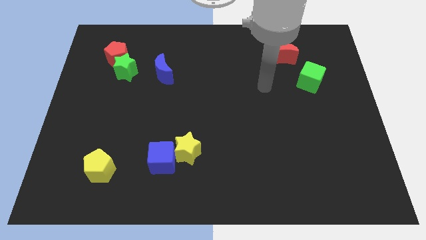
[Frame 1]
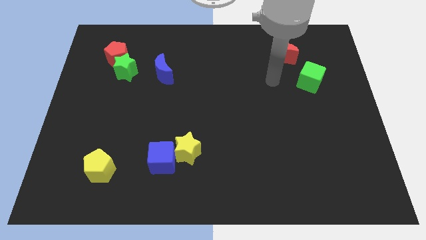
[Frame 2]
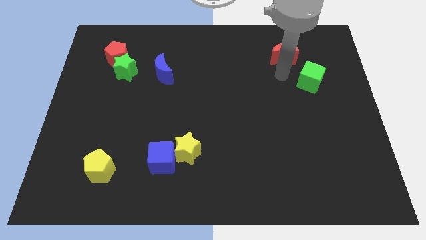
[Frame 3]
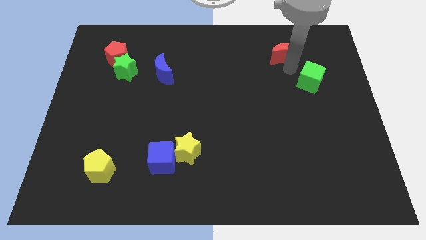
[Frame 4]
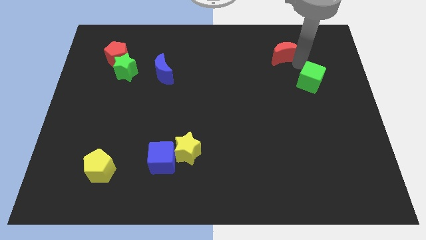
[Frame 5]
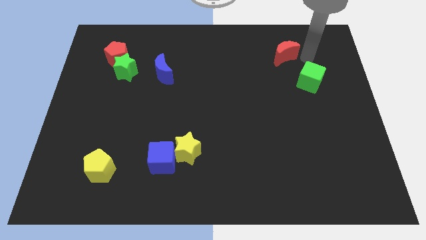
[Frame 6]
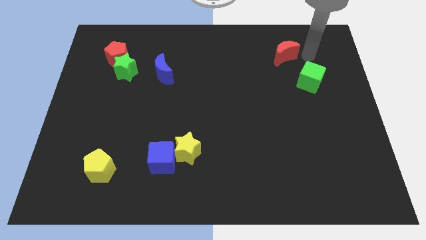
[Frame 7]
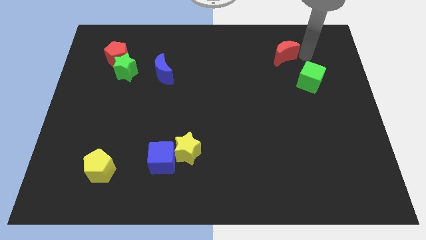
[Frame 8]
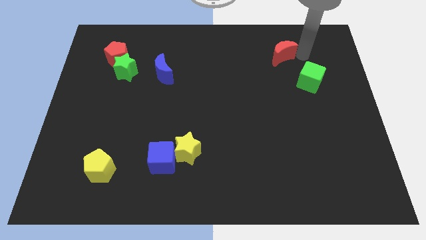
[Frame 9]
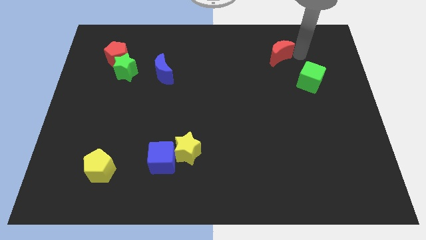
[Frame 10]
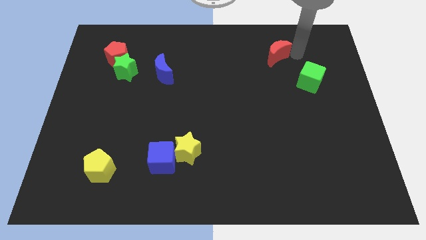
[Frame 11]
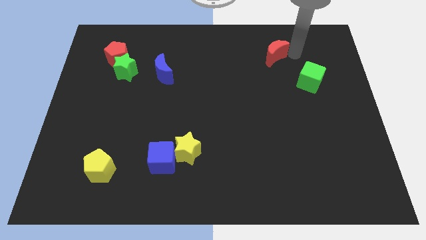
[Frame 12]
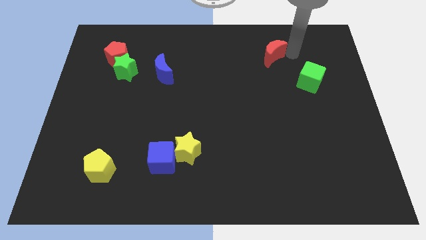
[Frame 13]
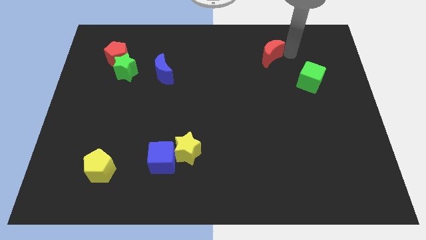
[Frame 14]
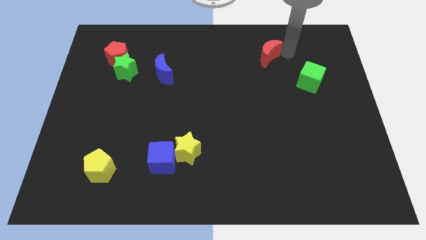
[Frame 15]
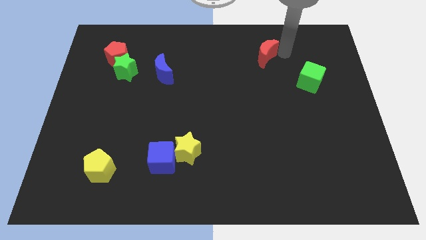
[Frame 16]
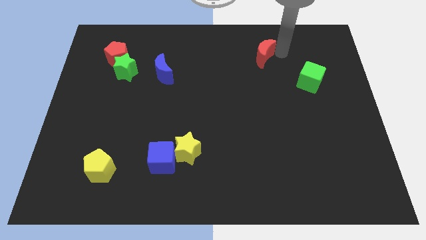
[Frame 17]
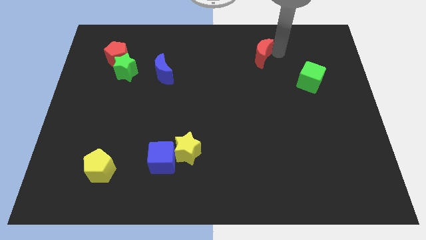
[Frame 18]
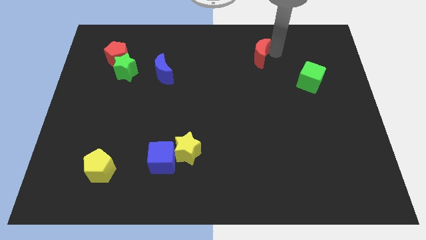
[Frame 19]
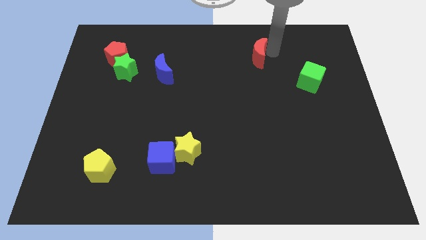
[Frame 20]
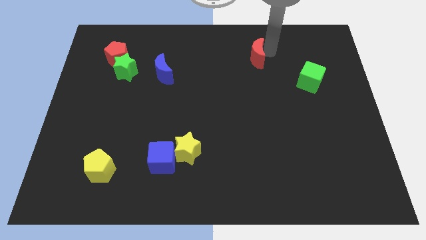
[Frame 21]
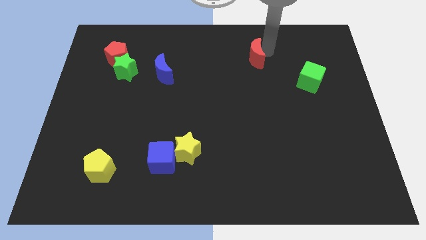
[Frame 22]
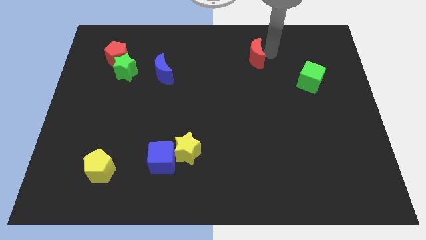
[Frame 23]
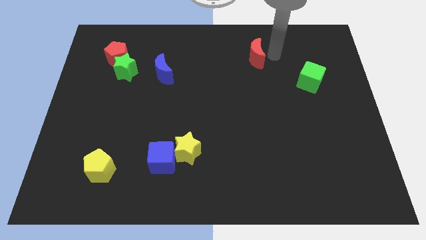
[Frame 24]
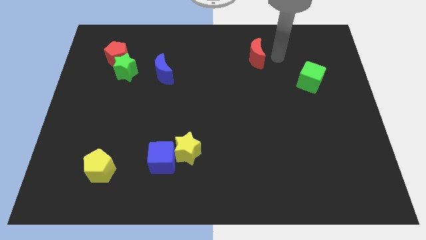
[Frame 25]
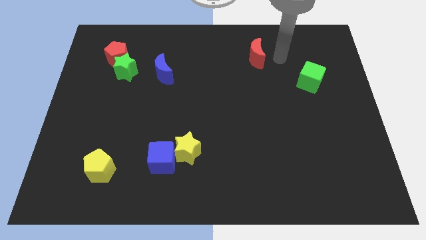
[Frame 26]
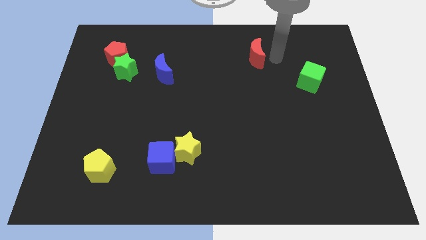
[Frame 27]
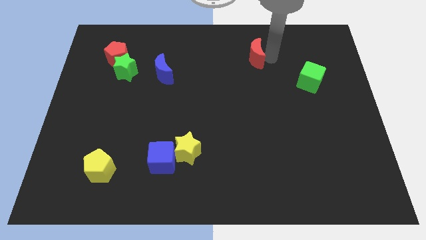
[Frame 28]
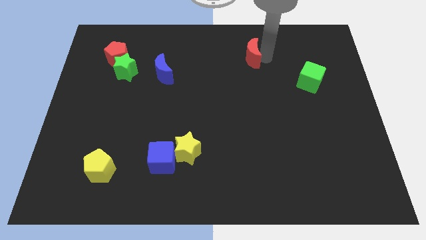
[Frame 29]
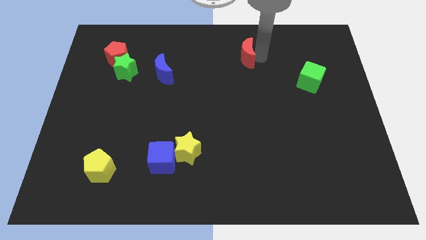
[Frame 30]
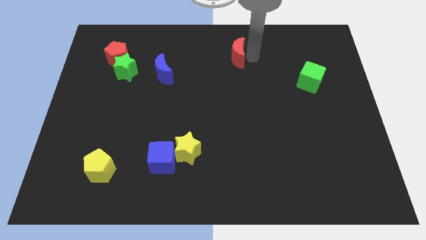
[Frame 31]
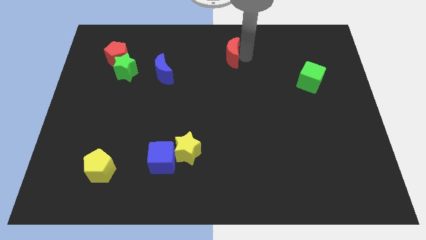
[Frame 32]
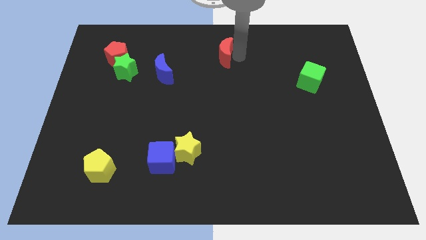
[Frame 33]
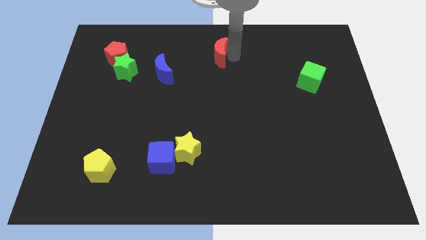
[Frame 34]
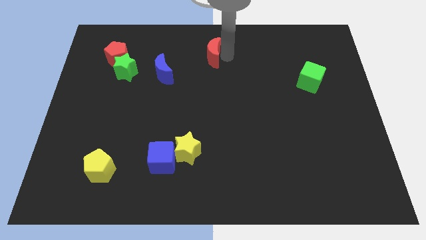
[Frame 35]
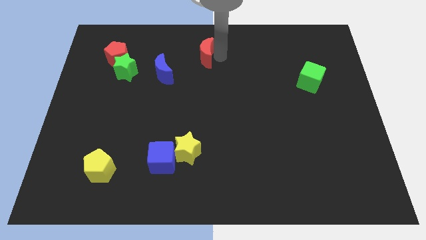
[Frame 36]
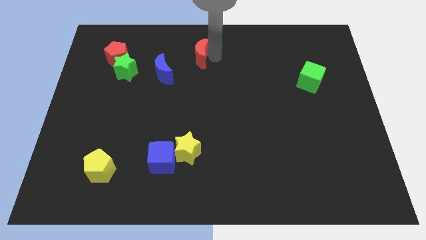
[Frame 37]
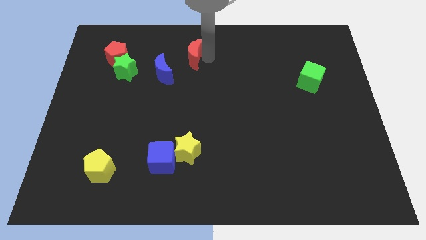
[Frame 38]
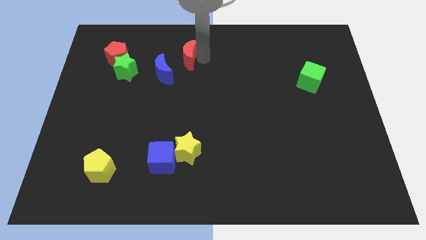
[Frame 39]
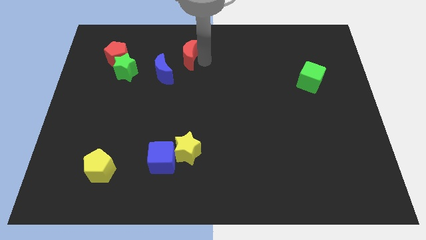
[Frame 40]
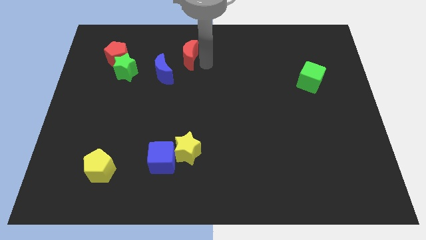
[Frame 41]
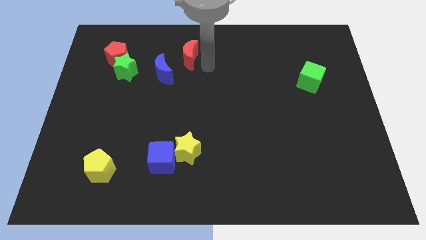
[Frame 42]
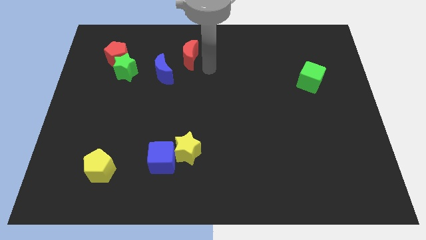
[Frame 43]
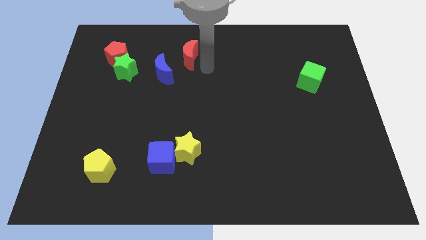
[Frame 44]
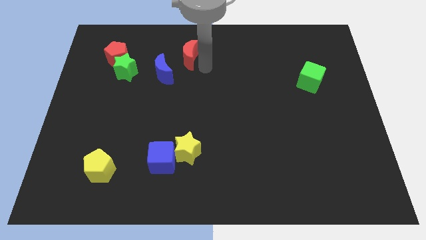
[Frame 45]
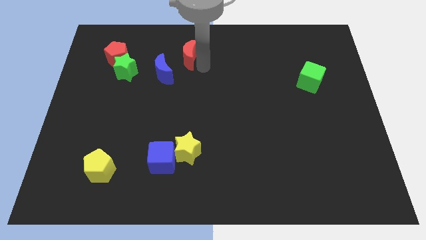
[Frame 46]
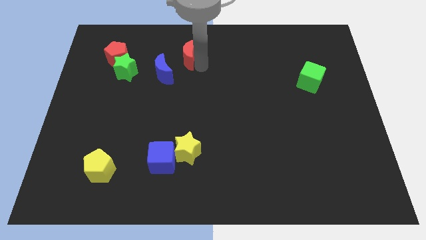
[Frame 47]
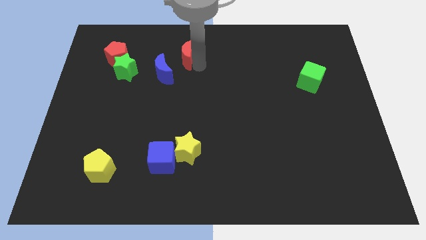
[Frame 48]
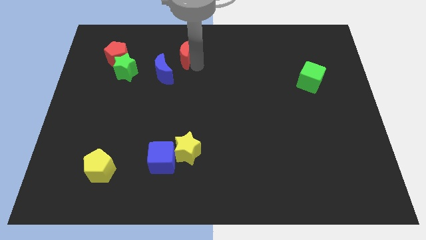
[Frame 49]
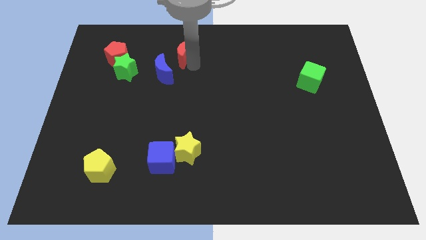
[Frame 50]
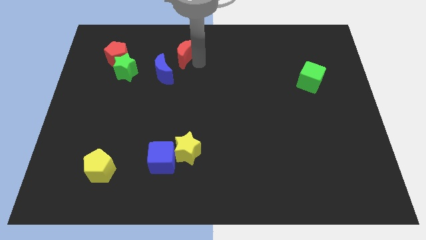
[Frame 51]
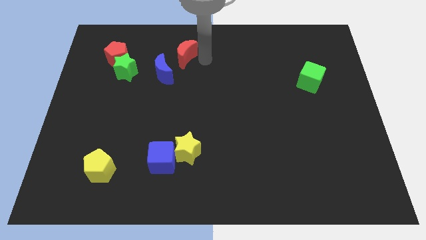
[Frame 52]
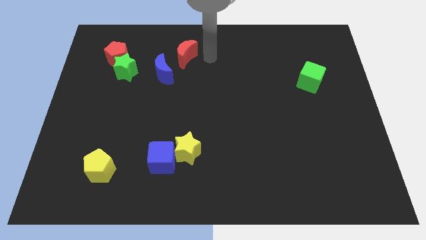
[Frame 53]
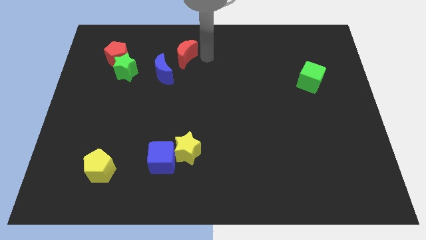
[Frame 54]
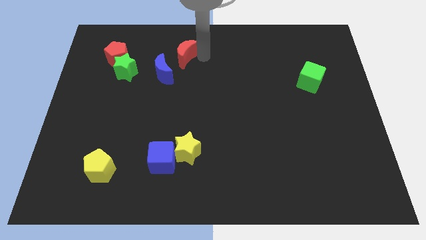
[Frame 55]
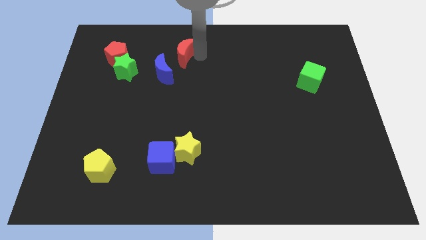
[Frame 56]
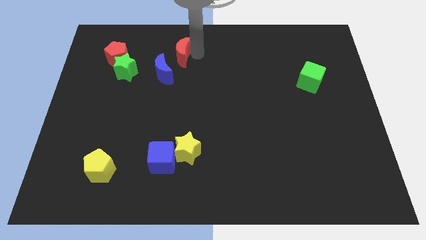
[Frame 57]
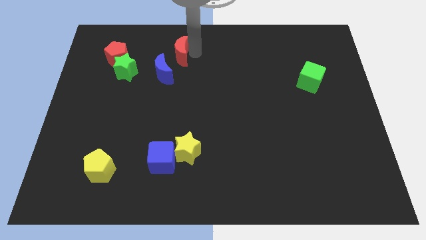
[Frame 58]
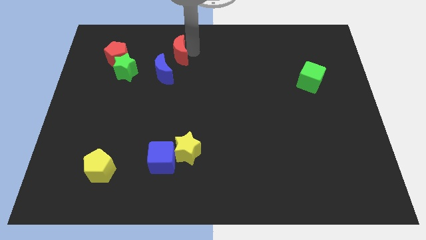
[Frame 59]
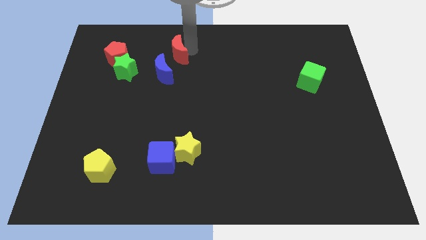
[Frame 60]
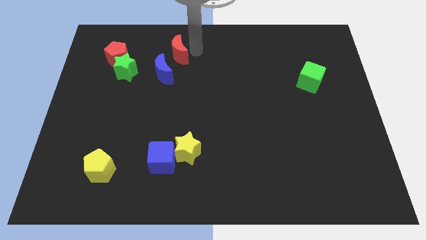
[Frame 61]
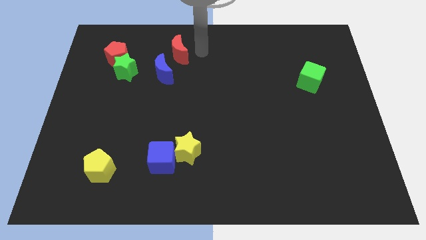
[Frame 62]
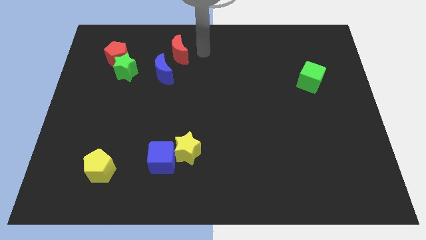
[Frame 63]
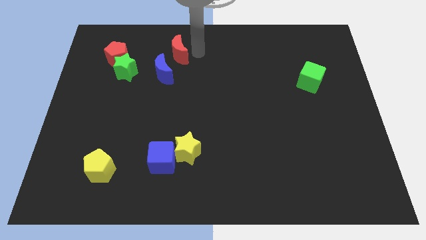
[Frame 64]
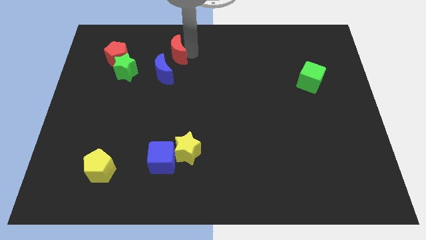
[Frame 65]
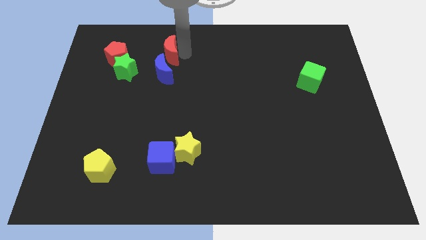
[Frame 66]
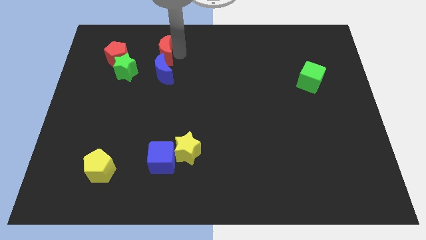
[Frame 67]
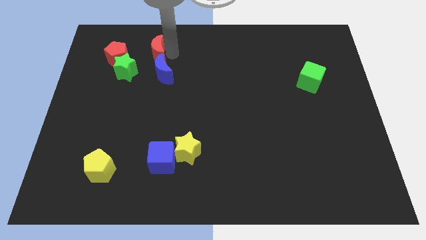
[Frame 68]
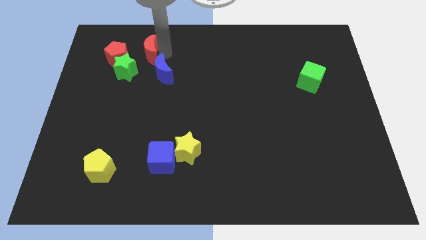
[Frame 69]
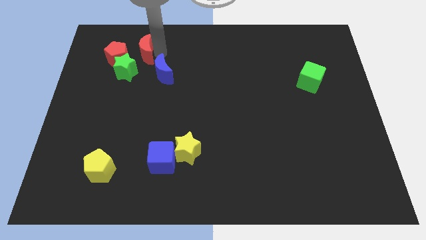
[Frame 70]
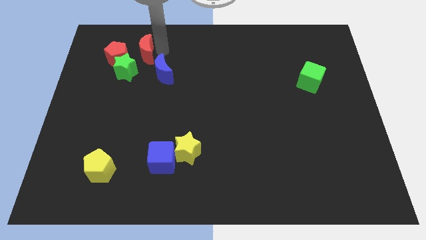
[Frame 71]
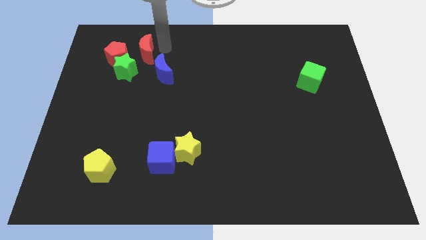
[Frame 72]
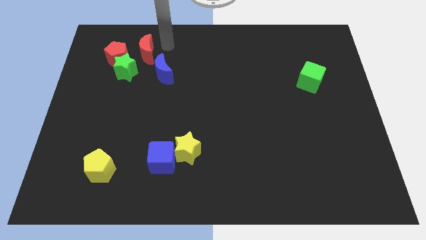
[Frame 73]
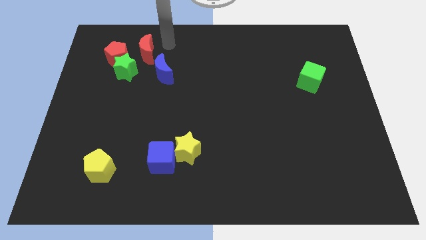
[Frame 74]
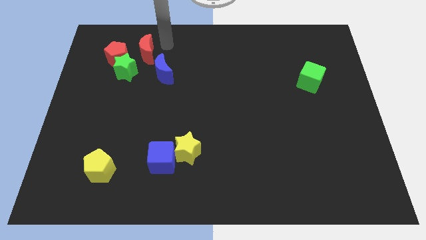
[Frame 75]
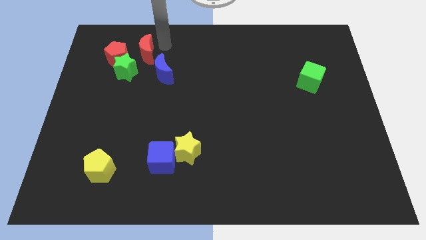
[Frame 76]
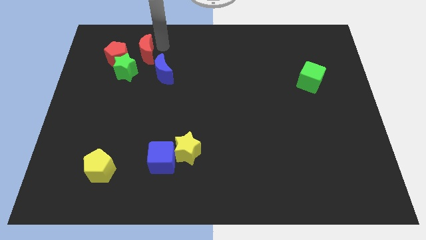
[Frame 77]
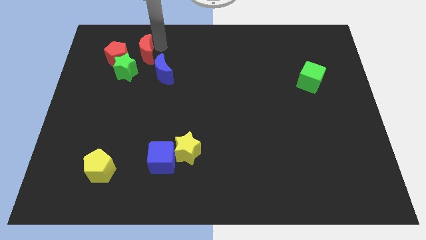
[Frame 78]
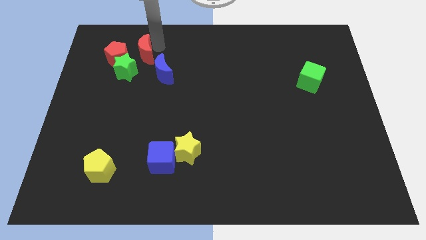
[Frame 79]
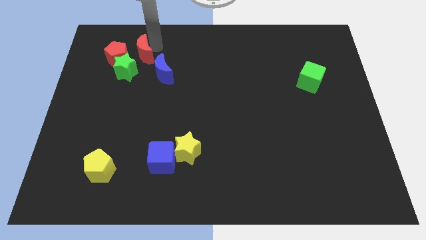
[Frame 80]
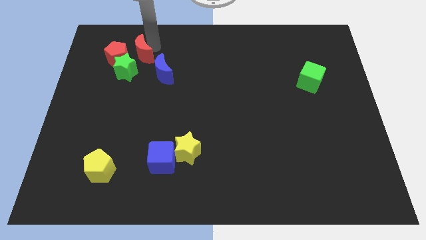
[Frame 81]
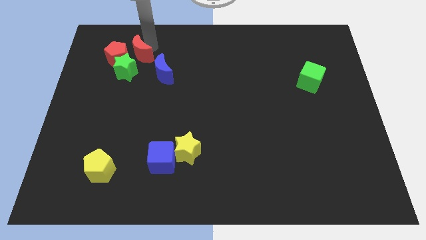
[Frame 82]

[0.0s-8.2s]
move the red moon towards the red pentagon
